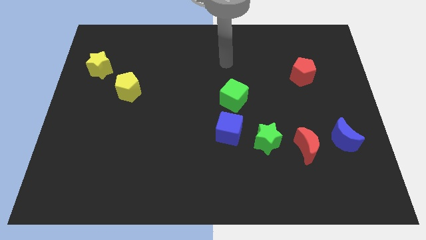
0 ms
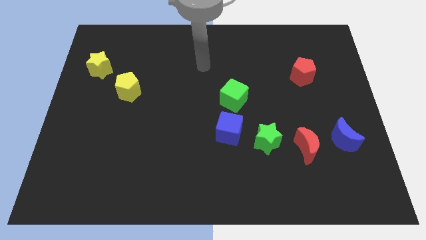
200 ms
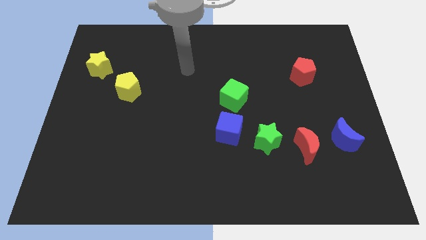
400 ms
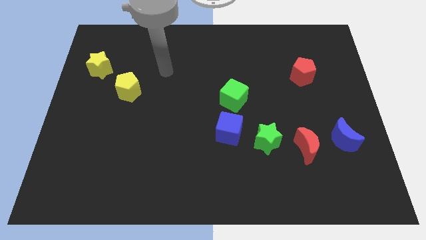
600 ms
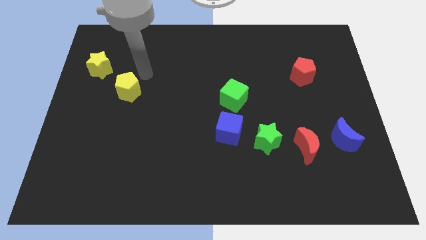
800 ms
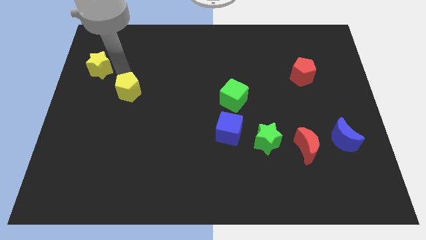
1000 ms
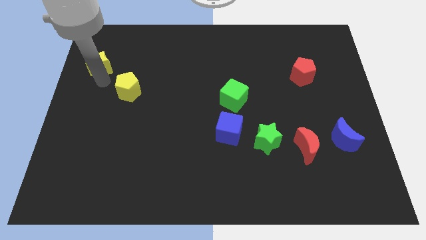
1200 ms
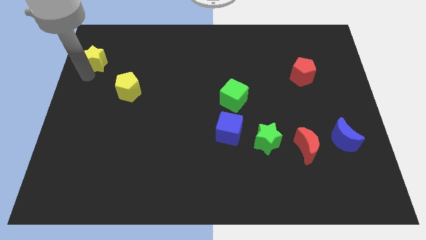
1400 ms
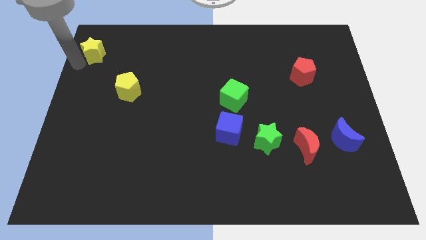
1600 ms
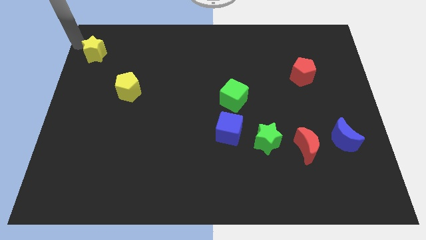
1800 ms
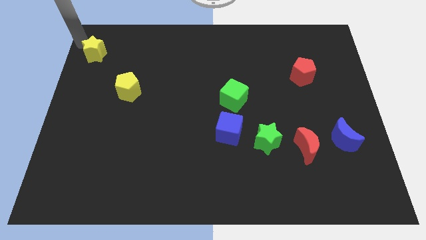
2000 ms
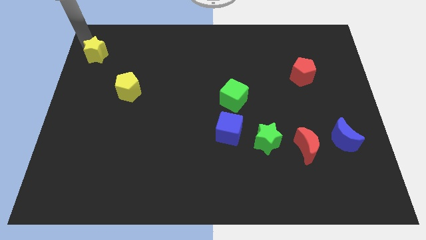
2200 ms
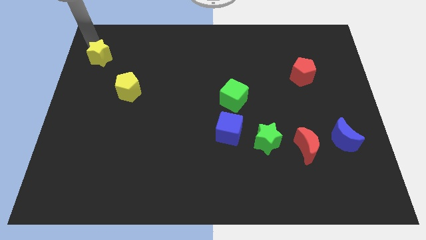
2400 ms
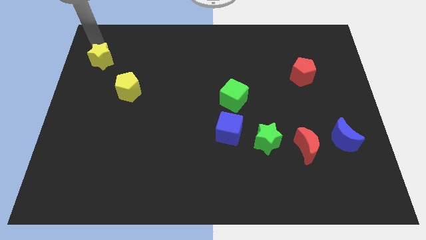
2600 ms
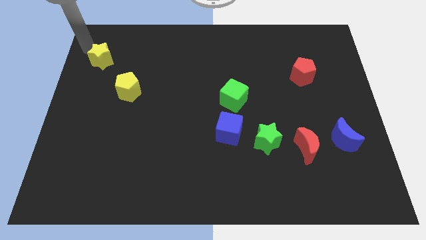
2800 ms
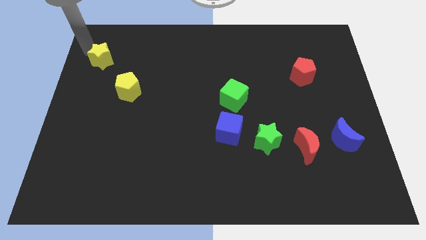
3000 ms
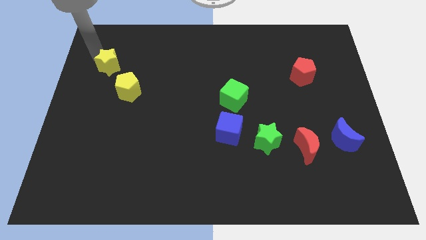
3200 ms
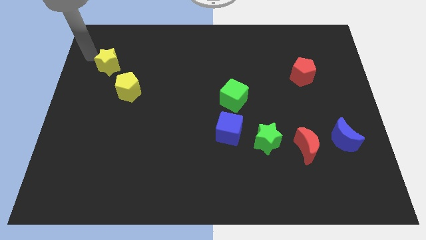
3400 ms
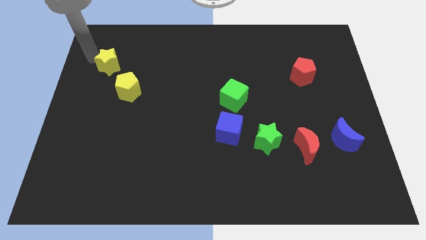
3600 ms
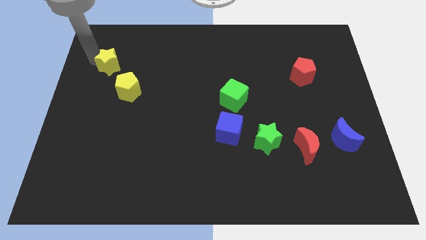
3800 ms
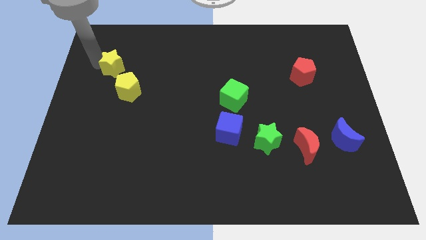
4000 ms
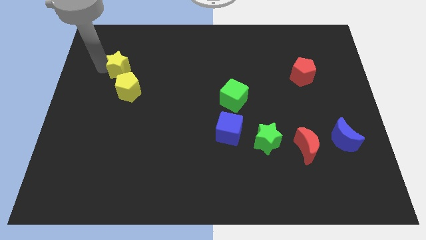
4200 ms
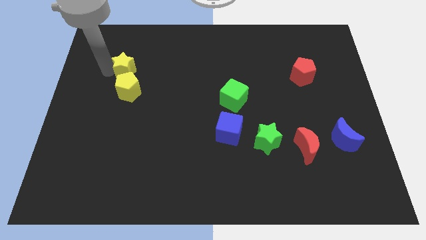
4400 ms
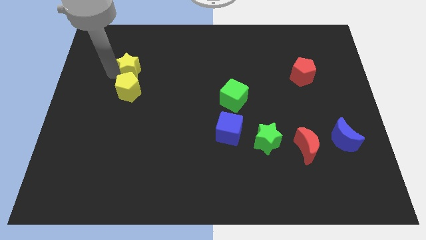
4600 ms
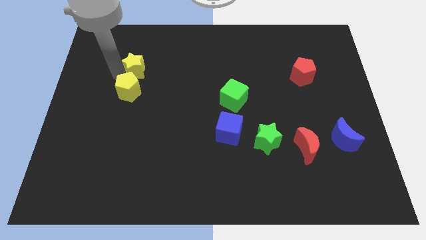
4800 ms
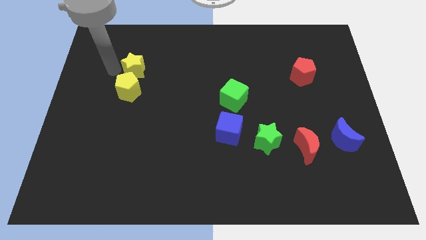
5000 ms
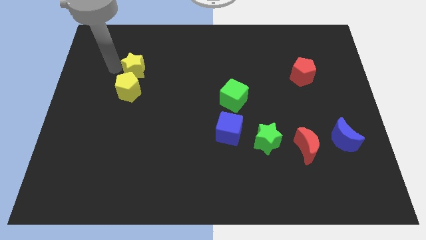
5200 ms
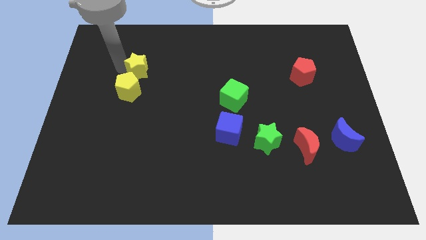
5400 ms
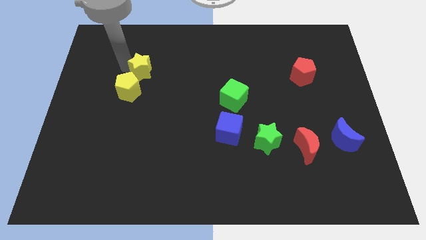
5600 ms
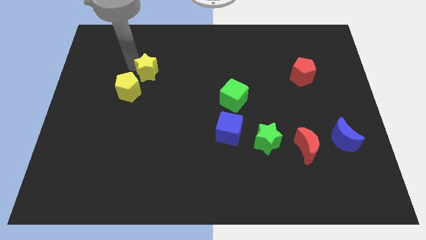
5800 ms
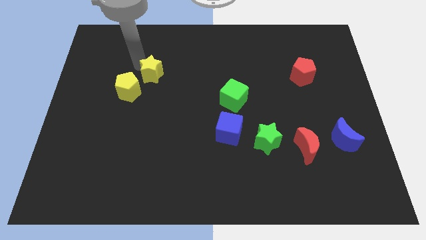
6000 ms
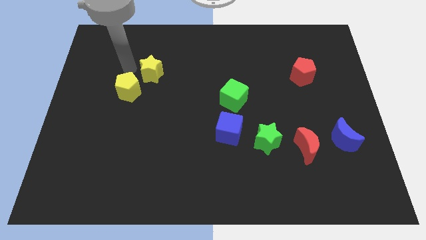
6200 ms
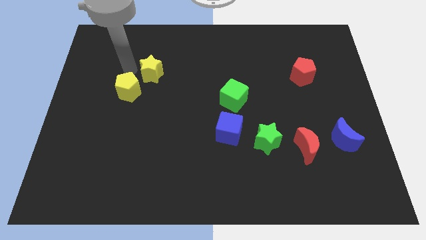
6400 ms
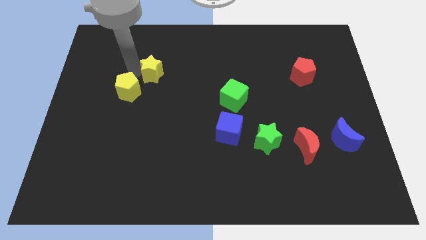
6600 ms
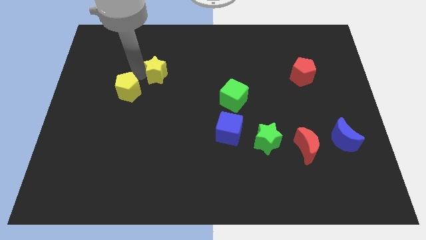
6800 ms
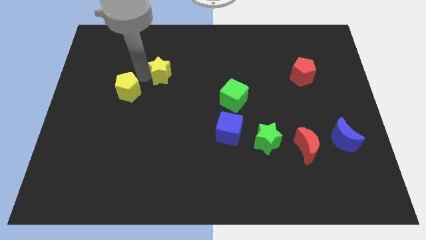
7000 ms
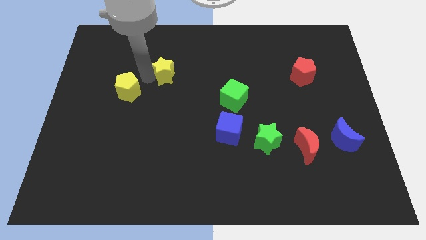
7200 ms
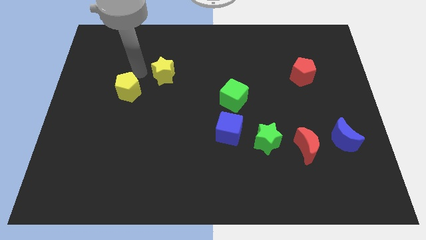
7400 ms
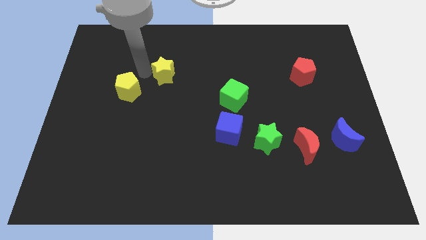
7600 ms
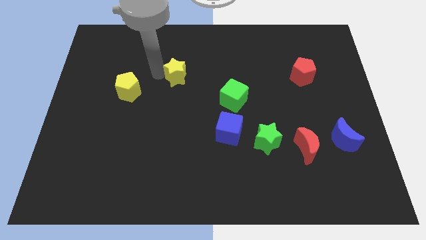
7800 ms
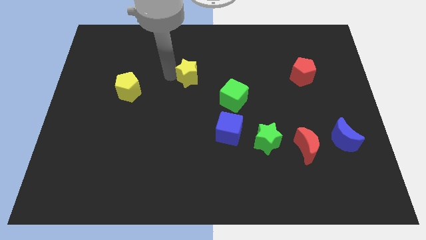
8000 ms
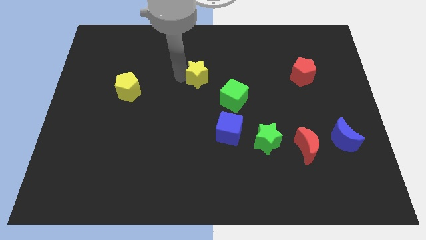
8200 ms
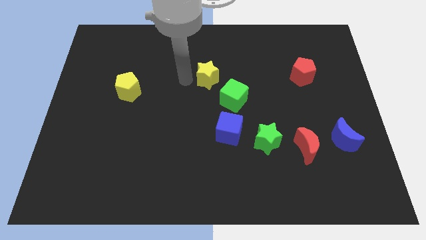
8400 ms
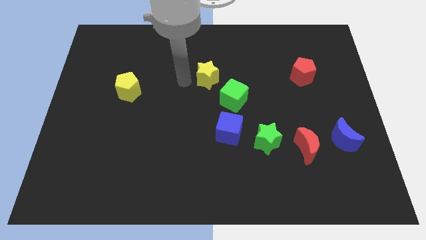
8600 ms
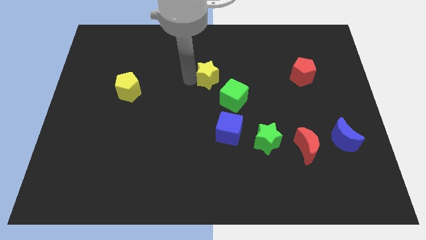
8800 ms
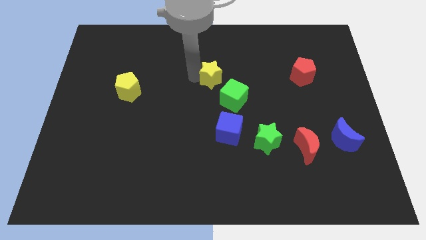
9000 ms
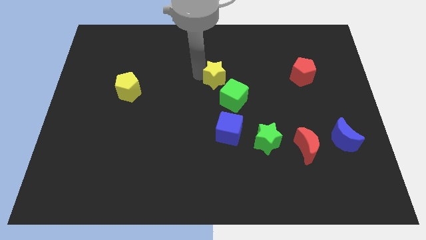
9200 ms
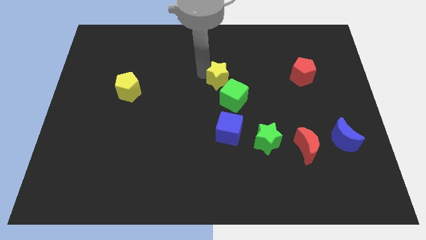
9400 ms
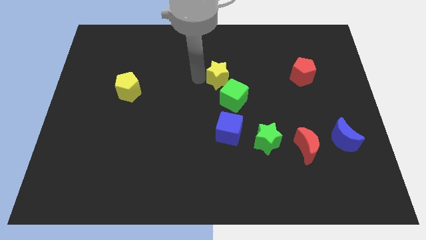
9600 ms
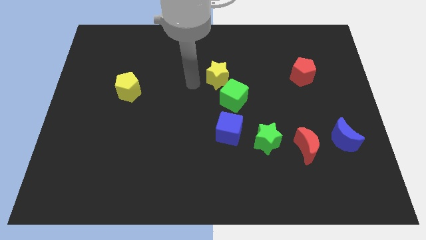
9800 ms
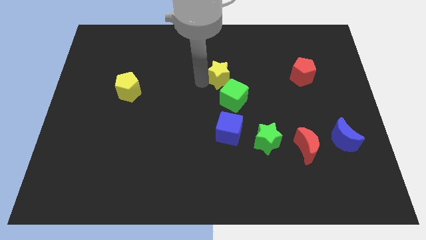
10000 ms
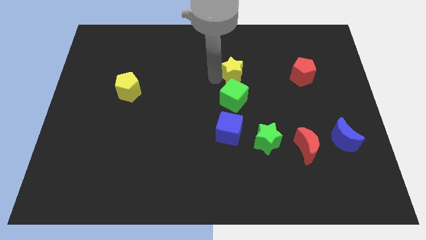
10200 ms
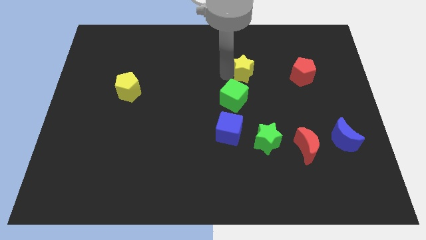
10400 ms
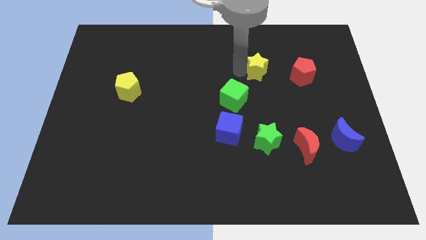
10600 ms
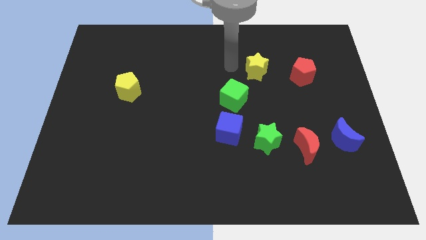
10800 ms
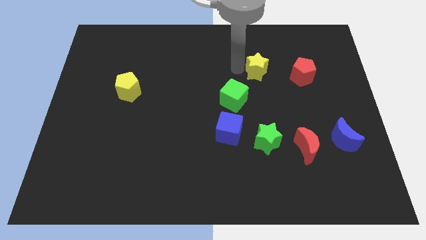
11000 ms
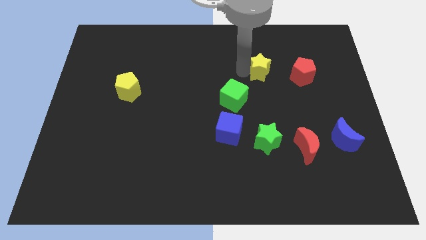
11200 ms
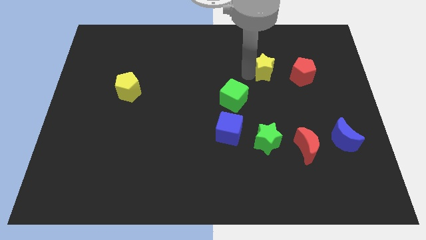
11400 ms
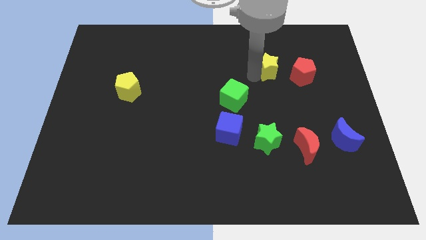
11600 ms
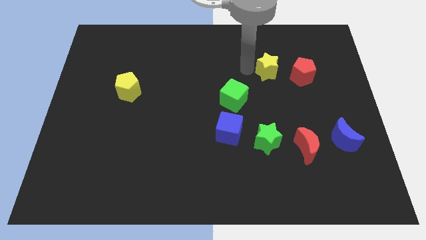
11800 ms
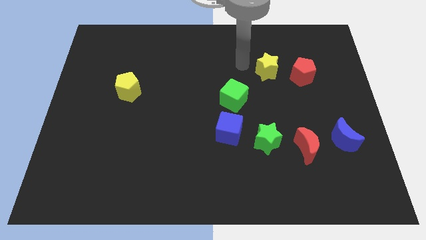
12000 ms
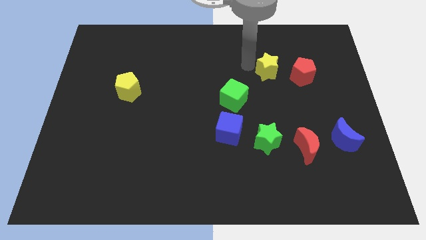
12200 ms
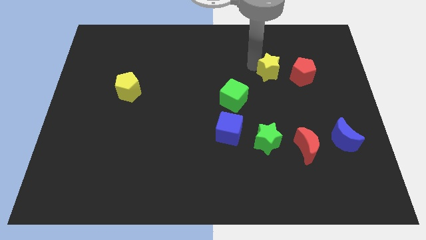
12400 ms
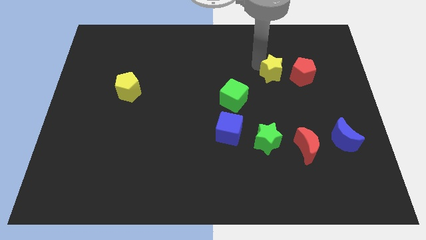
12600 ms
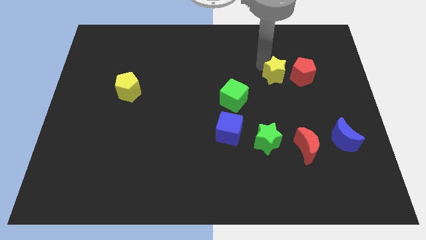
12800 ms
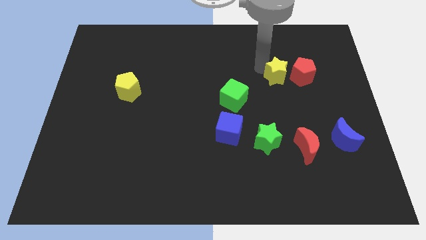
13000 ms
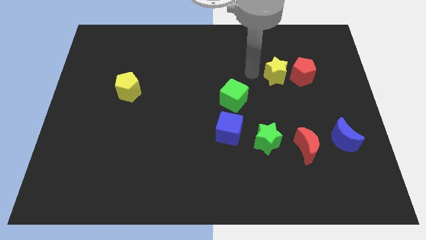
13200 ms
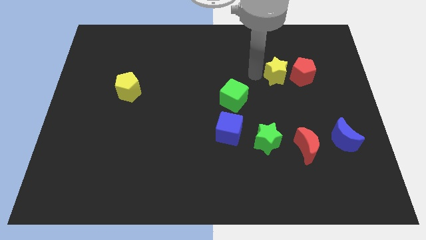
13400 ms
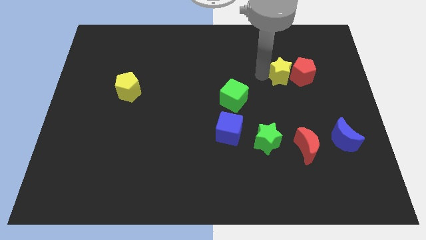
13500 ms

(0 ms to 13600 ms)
move the yellow star towards the red pentagon

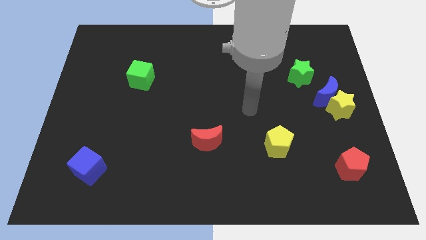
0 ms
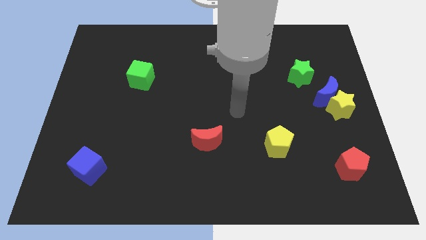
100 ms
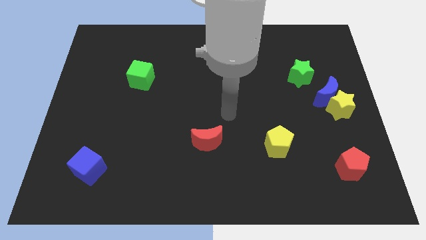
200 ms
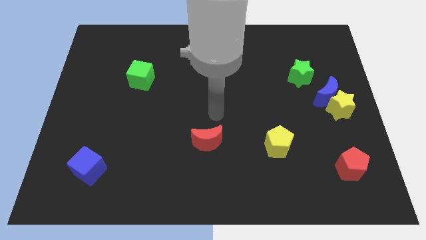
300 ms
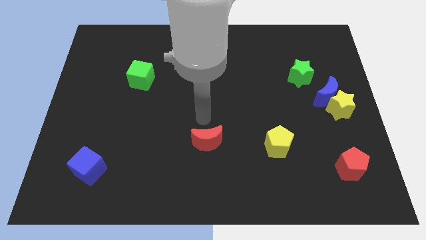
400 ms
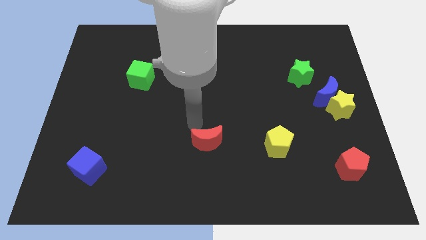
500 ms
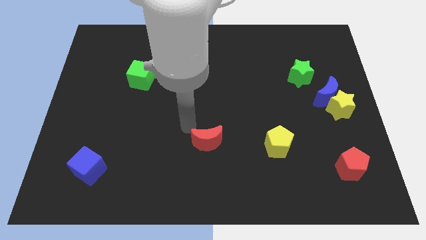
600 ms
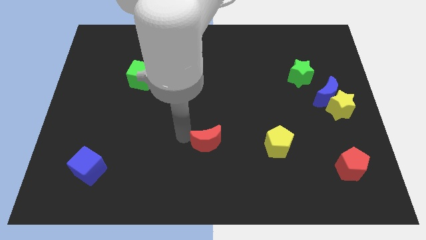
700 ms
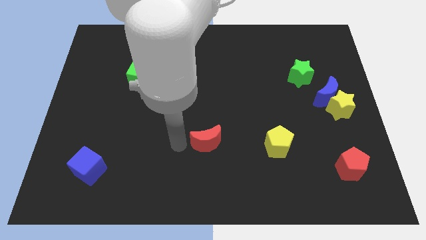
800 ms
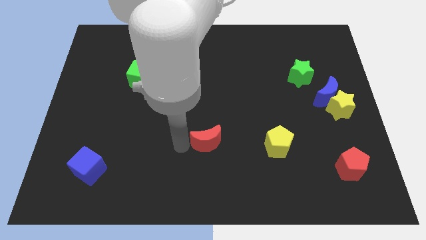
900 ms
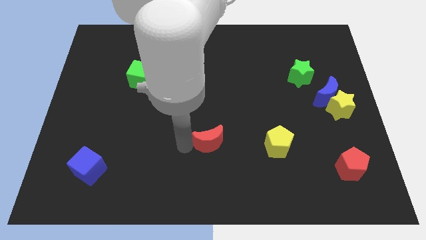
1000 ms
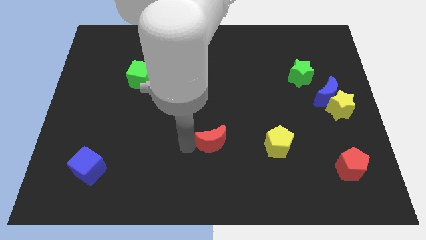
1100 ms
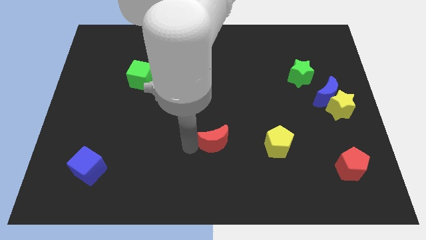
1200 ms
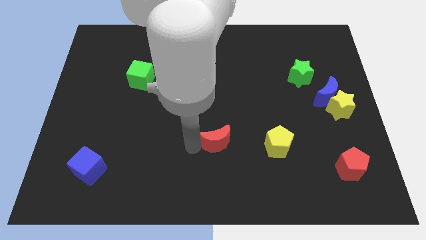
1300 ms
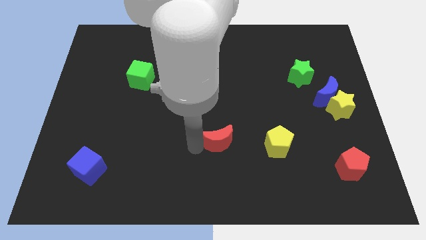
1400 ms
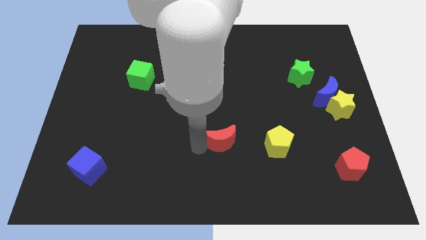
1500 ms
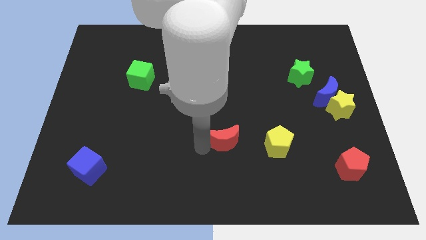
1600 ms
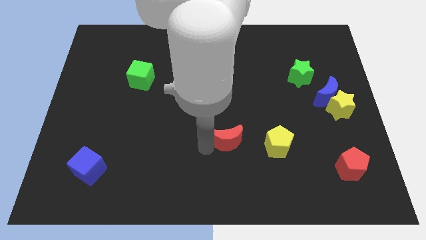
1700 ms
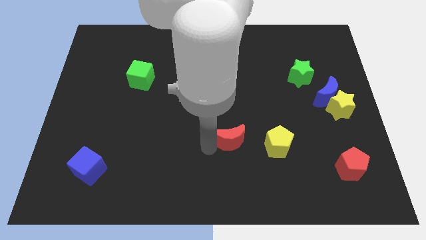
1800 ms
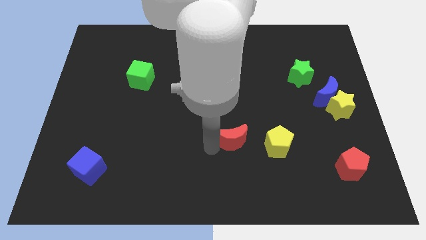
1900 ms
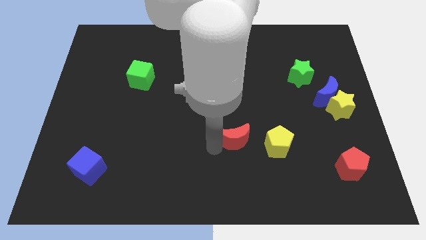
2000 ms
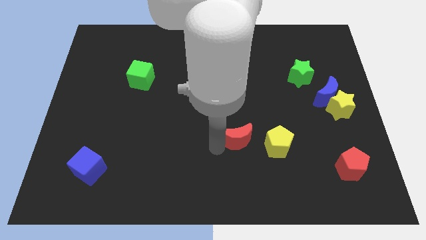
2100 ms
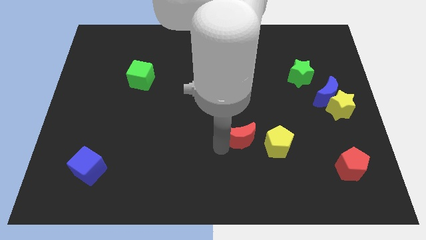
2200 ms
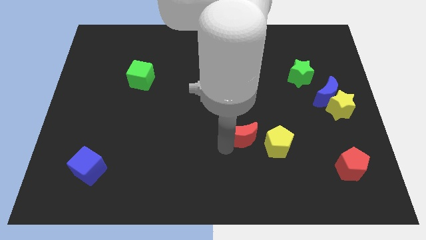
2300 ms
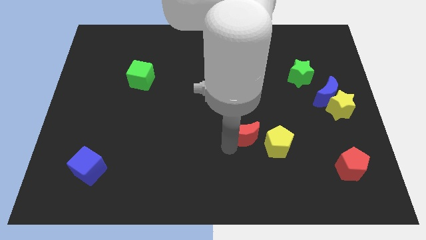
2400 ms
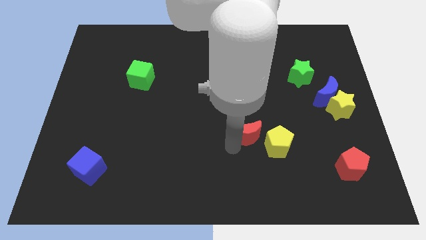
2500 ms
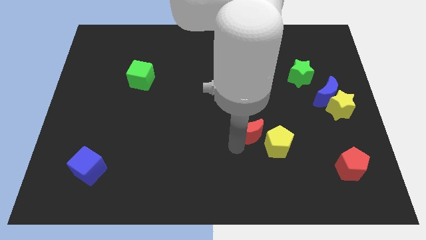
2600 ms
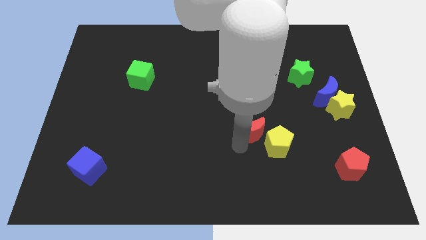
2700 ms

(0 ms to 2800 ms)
slide the red moon towards the yellow pentagon
